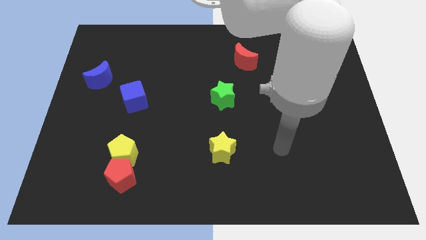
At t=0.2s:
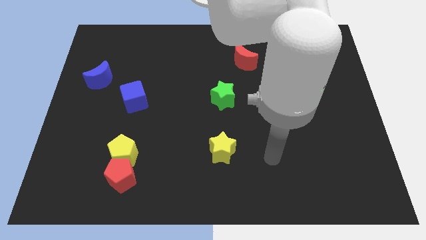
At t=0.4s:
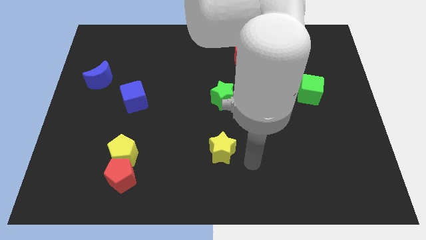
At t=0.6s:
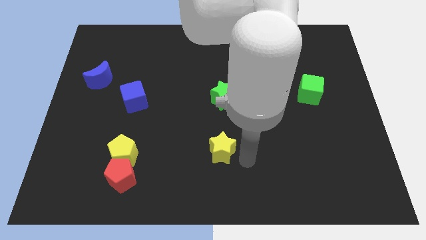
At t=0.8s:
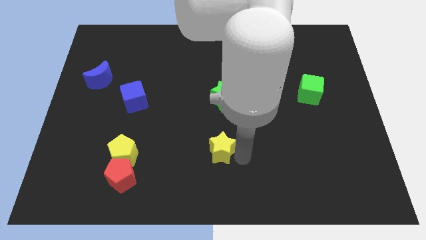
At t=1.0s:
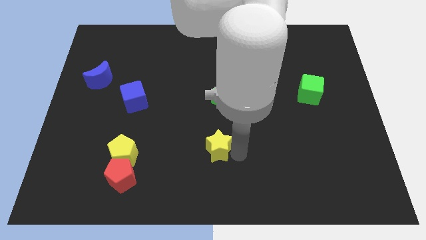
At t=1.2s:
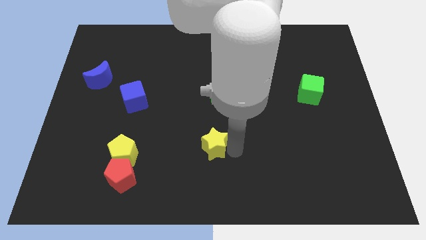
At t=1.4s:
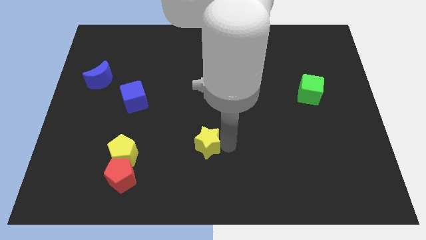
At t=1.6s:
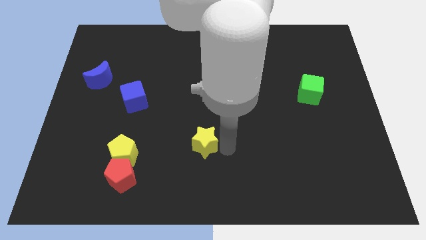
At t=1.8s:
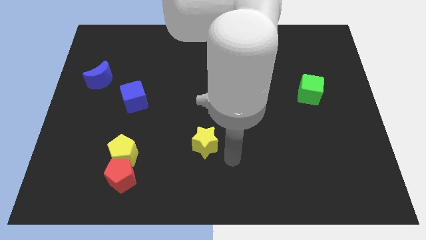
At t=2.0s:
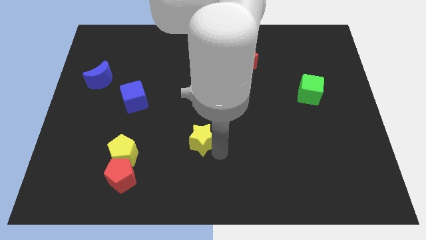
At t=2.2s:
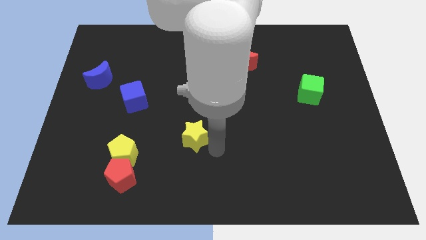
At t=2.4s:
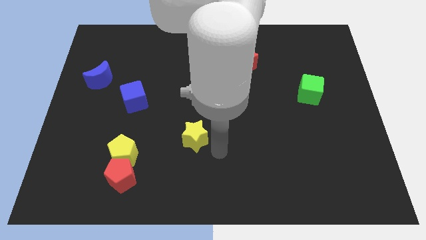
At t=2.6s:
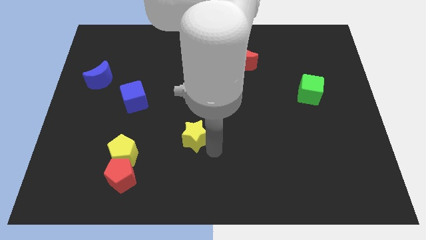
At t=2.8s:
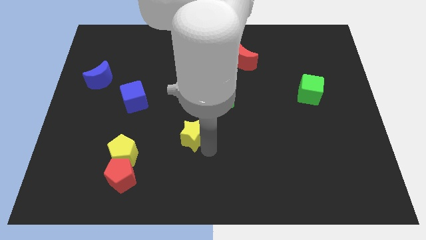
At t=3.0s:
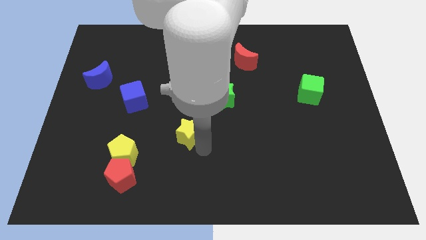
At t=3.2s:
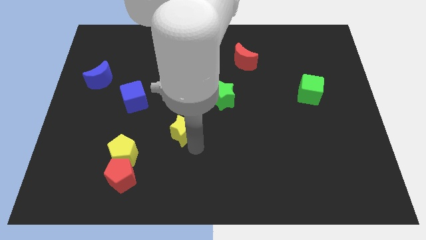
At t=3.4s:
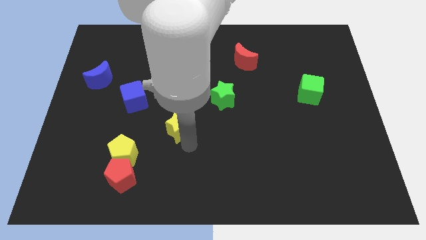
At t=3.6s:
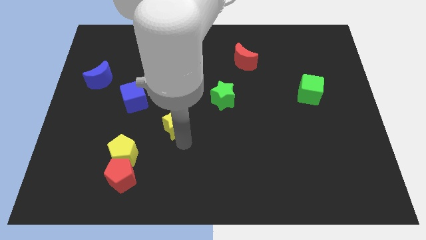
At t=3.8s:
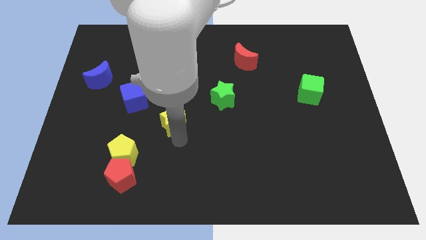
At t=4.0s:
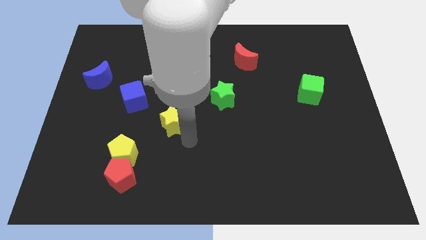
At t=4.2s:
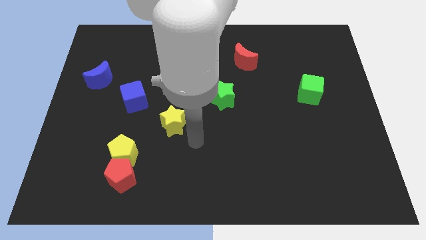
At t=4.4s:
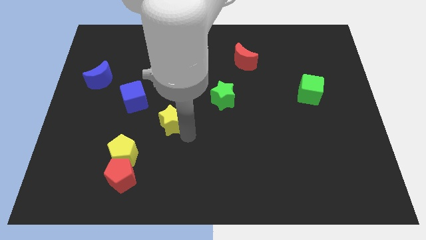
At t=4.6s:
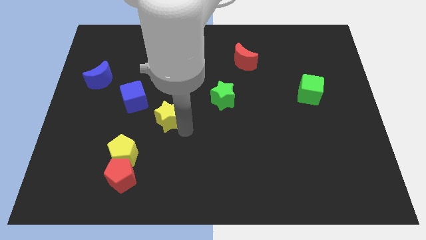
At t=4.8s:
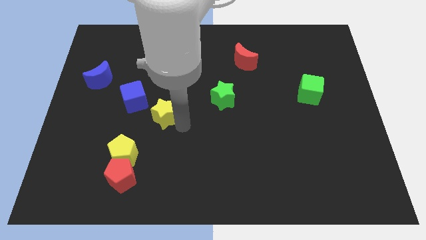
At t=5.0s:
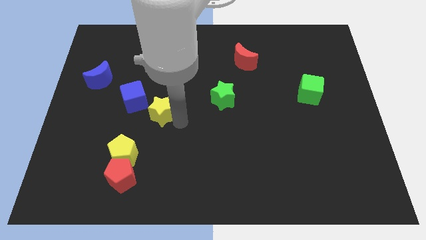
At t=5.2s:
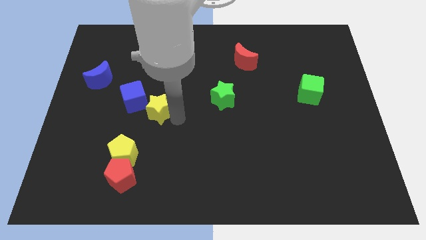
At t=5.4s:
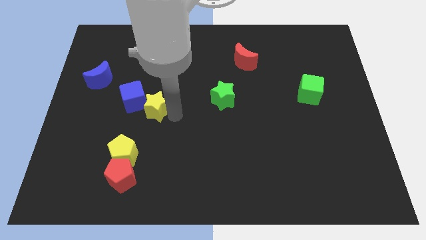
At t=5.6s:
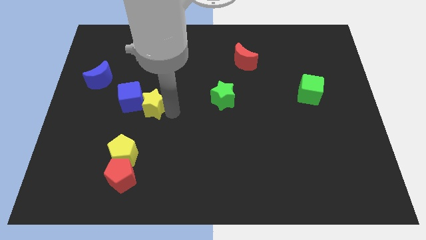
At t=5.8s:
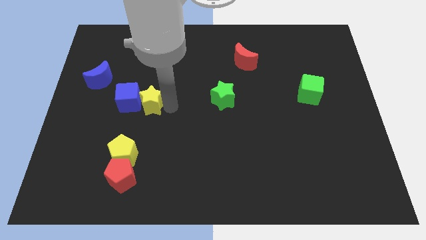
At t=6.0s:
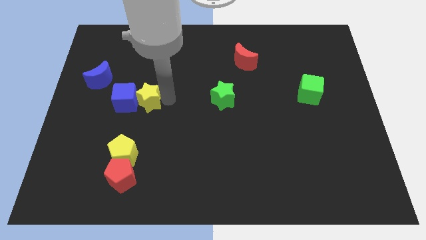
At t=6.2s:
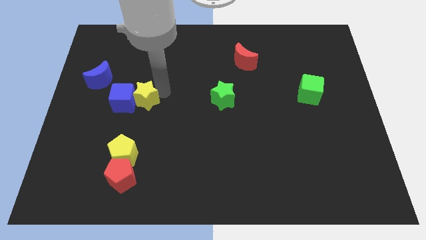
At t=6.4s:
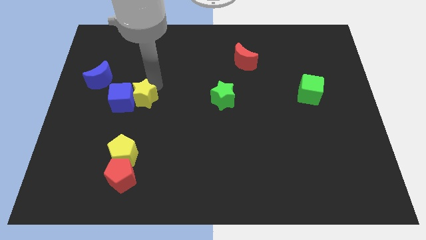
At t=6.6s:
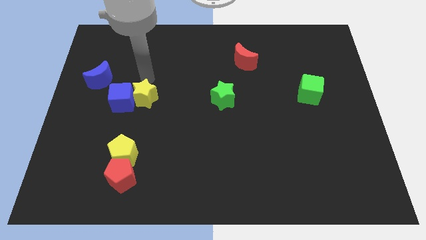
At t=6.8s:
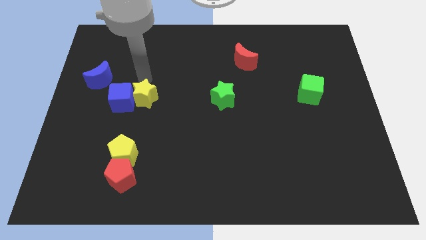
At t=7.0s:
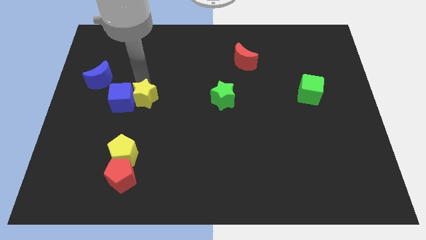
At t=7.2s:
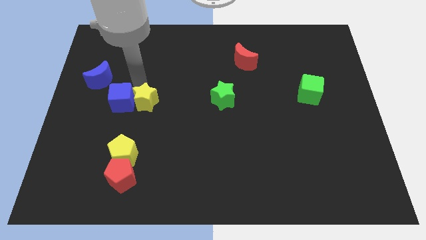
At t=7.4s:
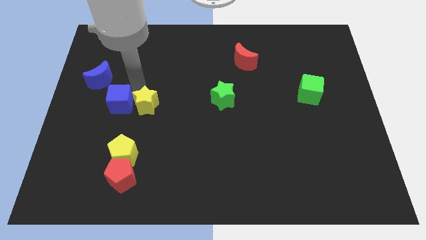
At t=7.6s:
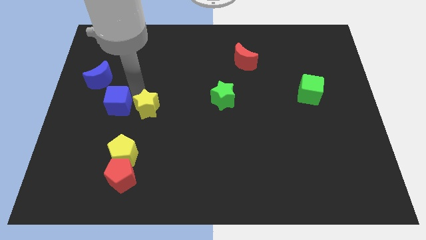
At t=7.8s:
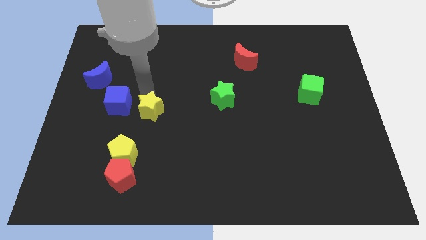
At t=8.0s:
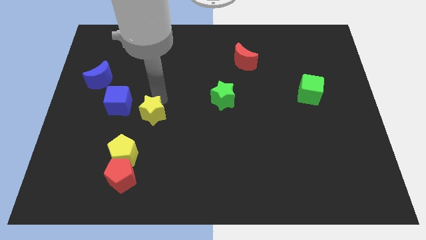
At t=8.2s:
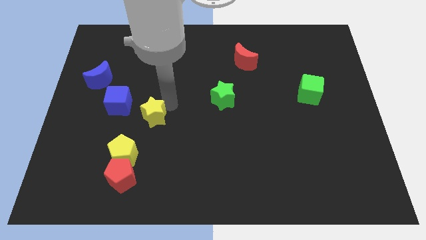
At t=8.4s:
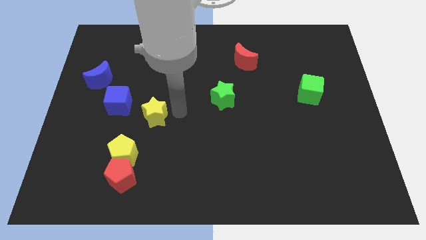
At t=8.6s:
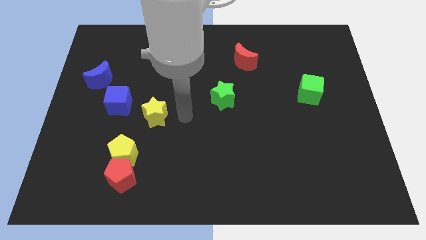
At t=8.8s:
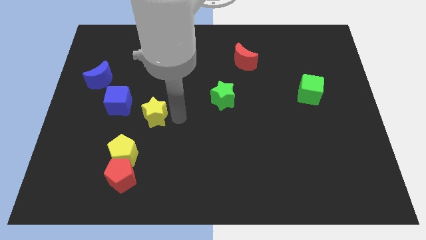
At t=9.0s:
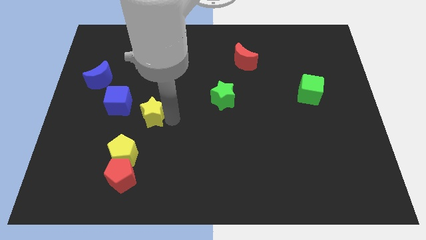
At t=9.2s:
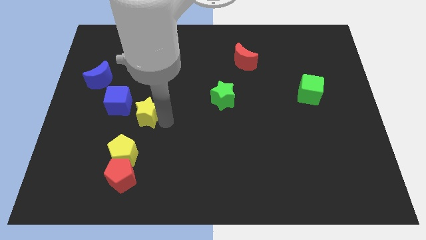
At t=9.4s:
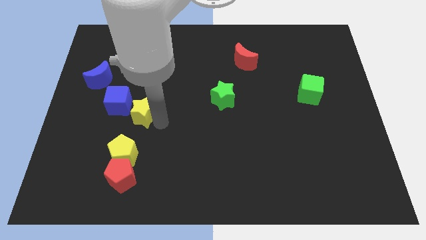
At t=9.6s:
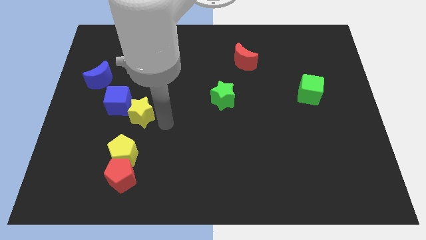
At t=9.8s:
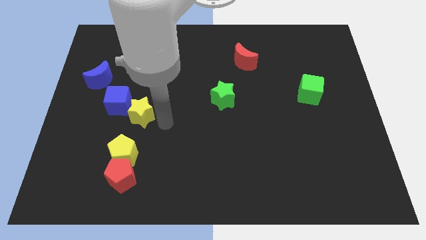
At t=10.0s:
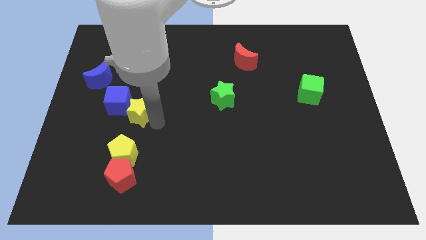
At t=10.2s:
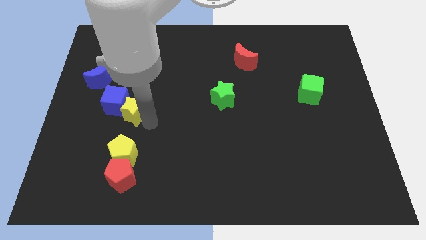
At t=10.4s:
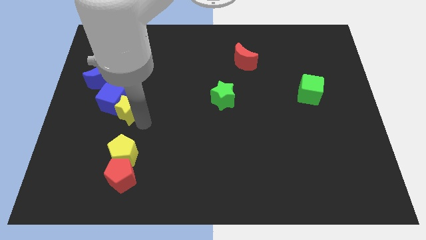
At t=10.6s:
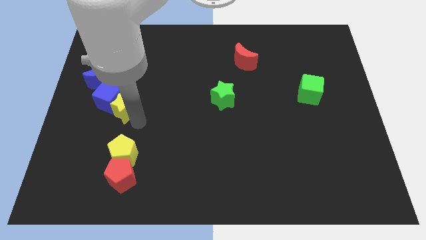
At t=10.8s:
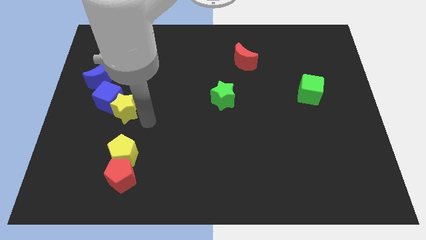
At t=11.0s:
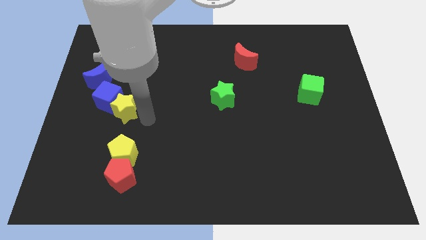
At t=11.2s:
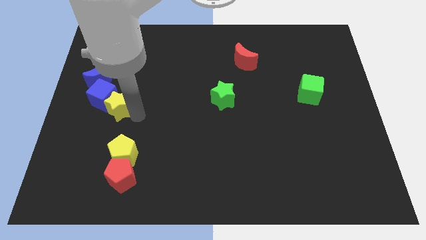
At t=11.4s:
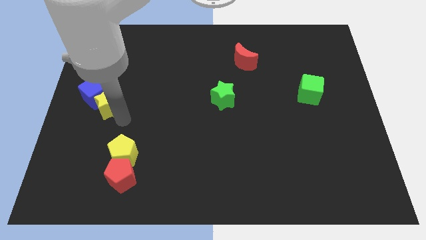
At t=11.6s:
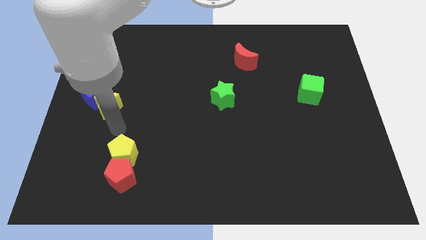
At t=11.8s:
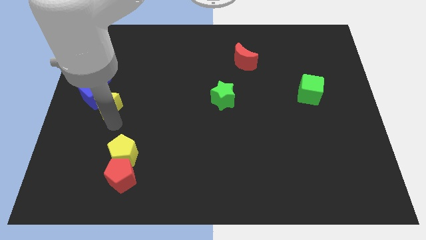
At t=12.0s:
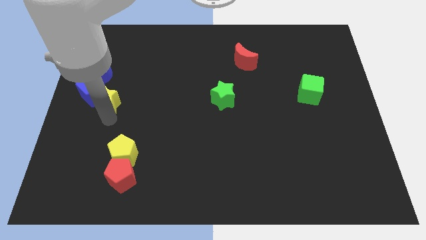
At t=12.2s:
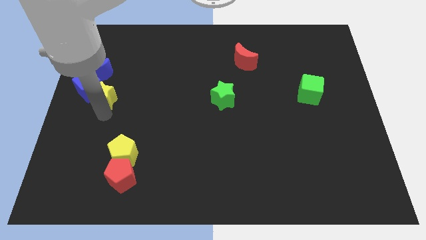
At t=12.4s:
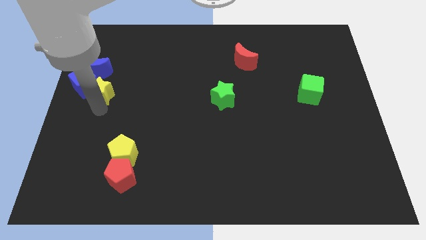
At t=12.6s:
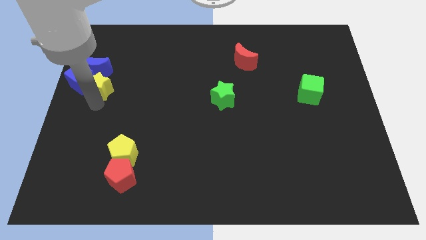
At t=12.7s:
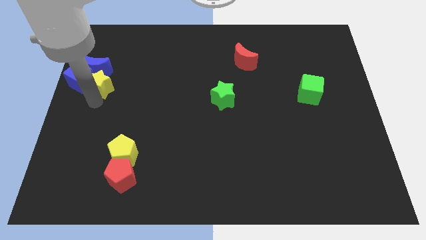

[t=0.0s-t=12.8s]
slide the yellow star to the blue moon

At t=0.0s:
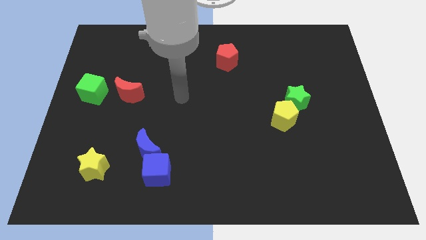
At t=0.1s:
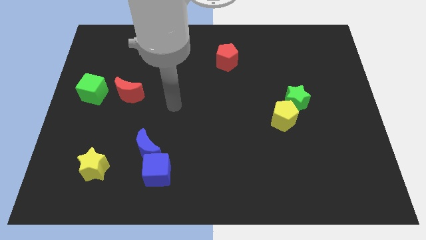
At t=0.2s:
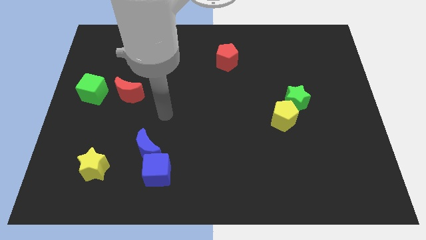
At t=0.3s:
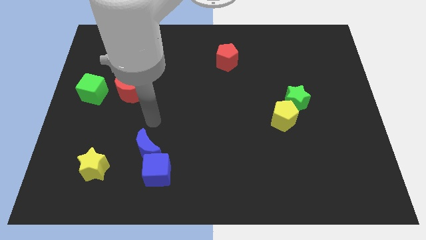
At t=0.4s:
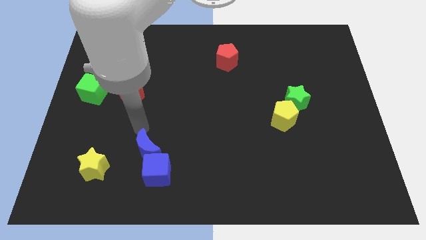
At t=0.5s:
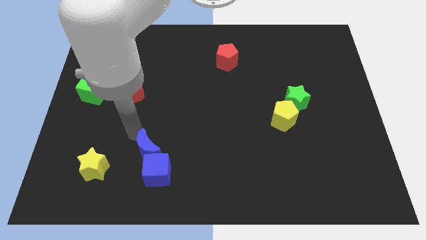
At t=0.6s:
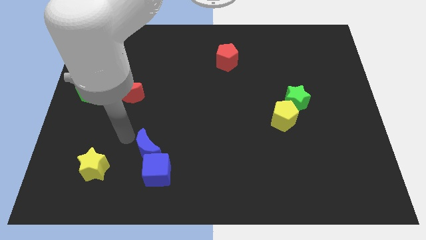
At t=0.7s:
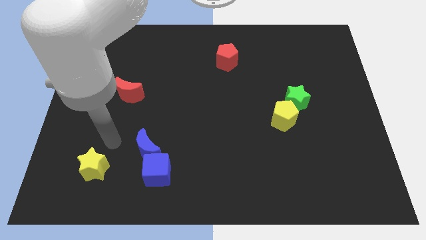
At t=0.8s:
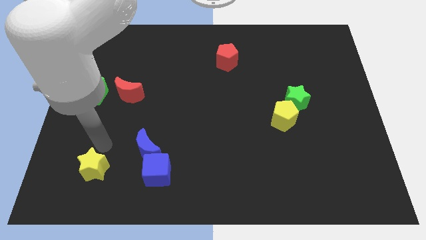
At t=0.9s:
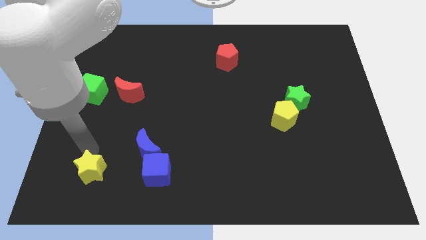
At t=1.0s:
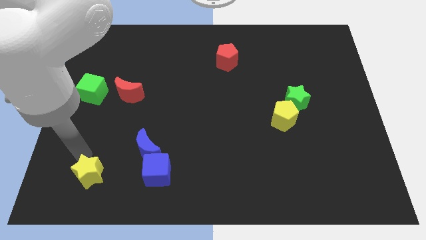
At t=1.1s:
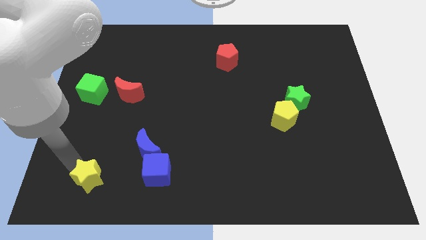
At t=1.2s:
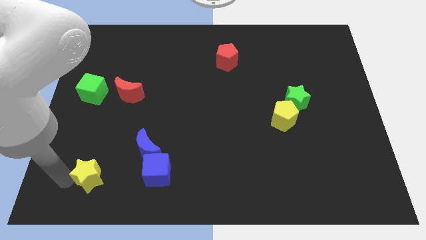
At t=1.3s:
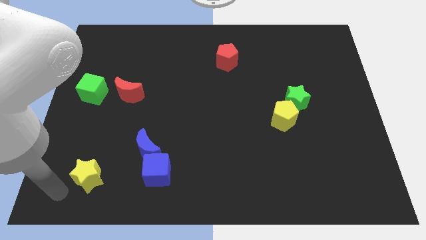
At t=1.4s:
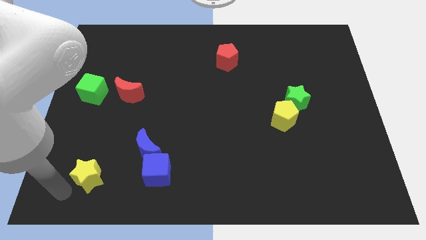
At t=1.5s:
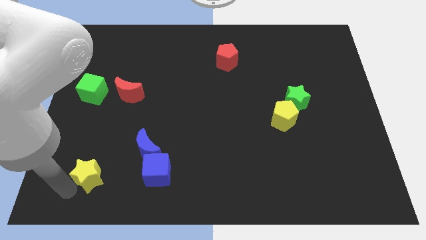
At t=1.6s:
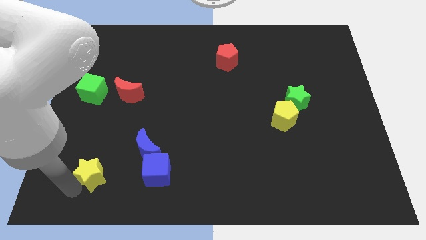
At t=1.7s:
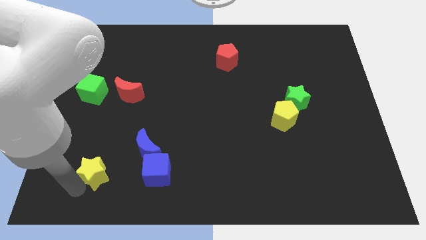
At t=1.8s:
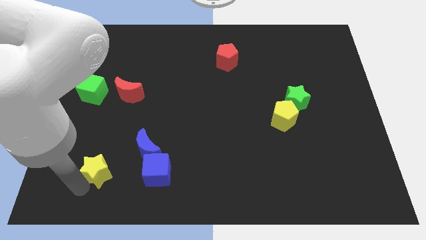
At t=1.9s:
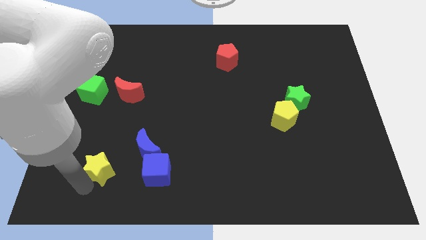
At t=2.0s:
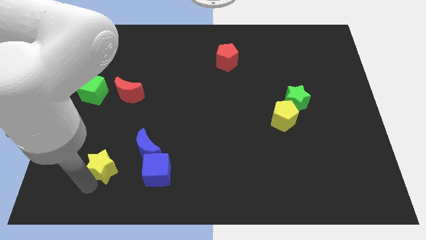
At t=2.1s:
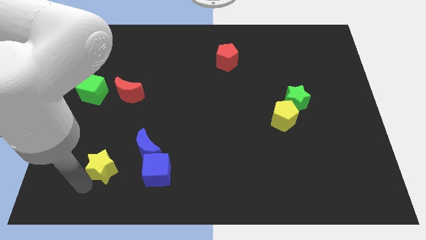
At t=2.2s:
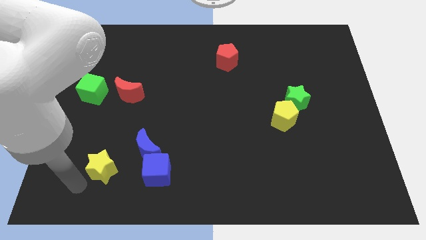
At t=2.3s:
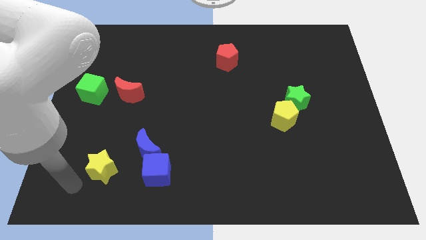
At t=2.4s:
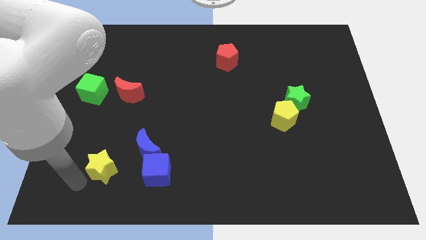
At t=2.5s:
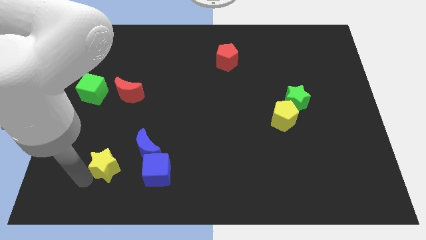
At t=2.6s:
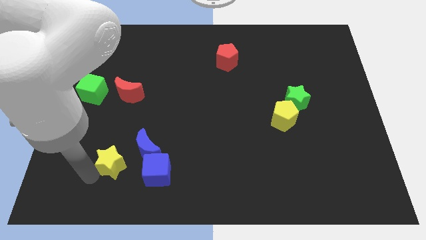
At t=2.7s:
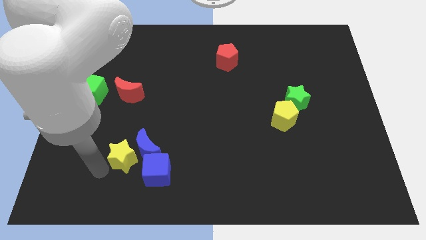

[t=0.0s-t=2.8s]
push the yellow star to the blue moon
